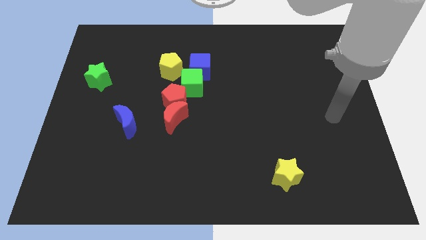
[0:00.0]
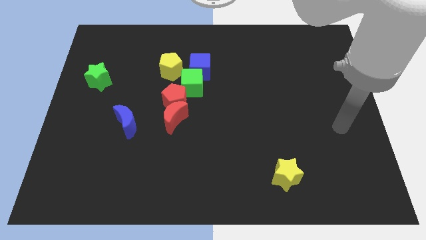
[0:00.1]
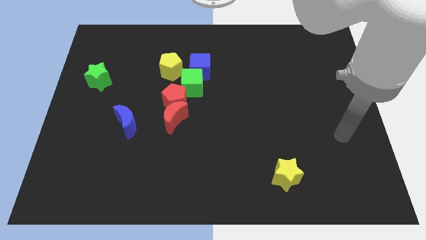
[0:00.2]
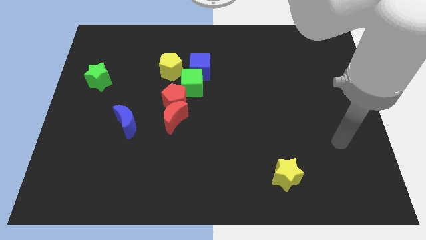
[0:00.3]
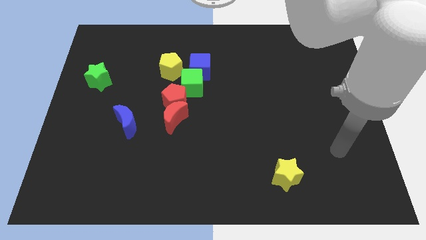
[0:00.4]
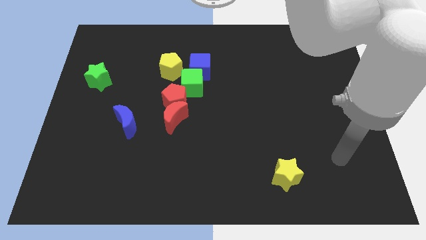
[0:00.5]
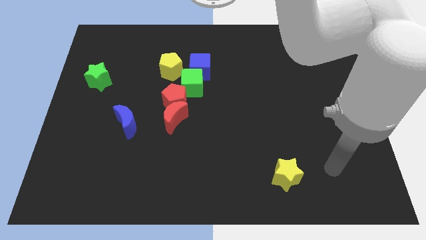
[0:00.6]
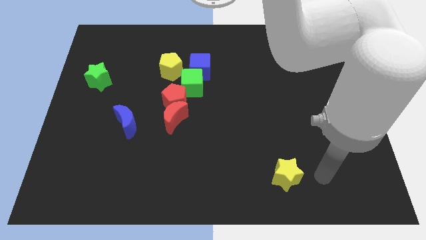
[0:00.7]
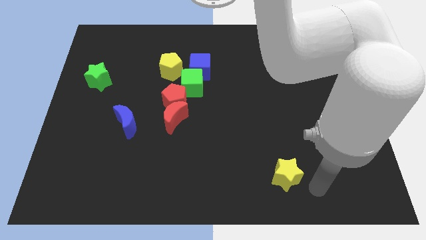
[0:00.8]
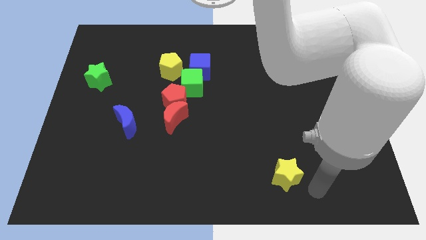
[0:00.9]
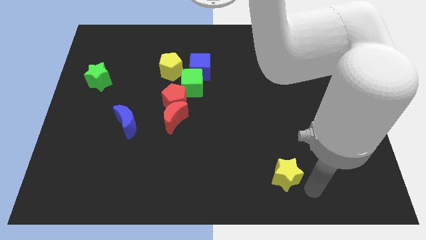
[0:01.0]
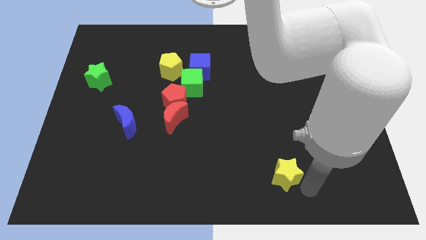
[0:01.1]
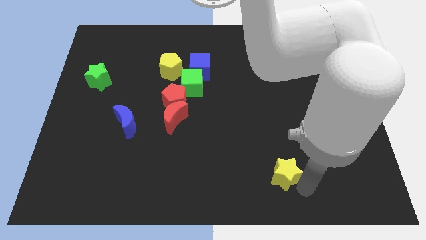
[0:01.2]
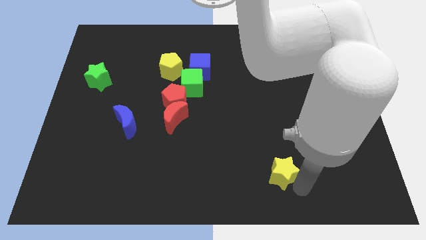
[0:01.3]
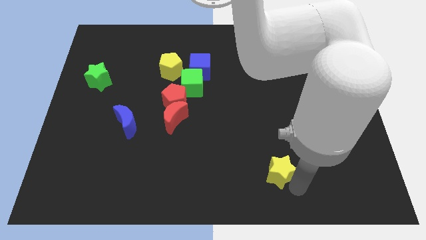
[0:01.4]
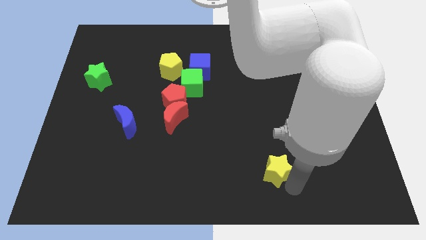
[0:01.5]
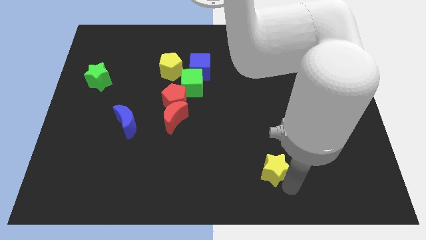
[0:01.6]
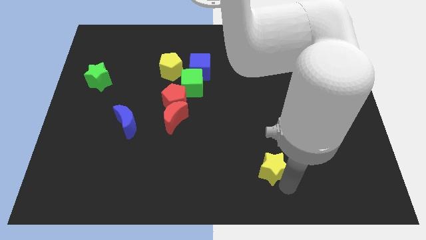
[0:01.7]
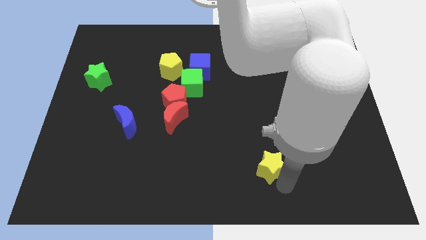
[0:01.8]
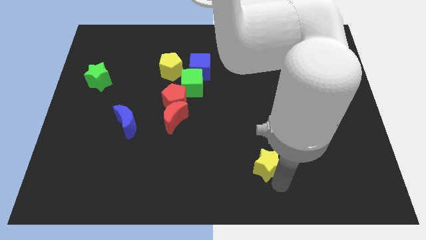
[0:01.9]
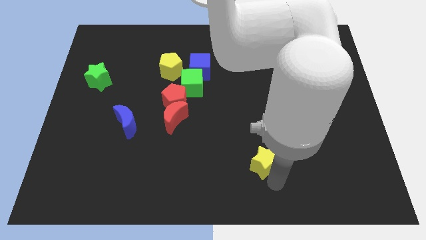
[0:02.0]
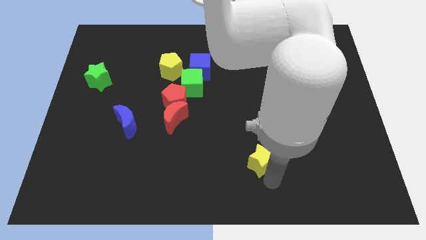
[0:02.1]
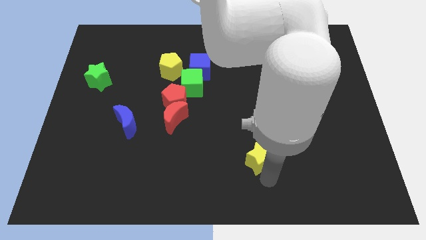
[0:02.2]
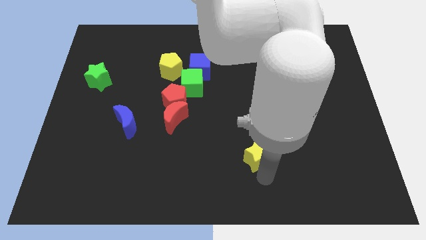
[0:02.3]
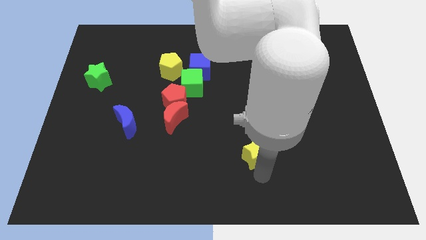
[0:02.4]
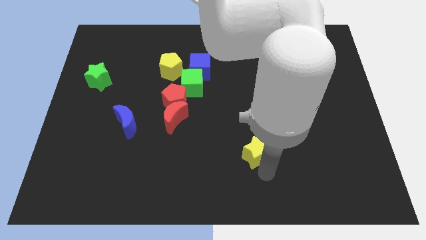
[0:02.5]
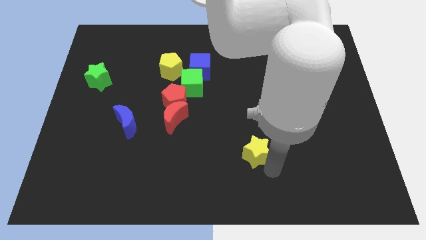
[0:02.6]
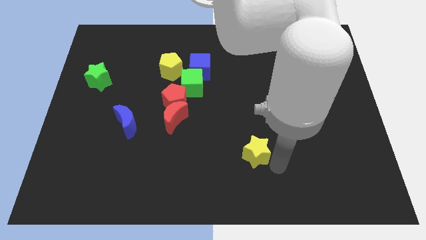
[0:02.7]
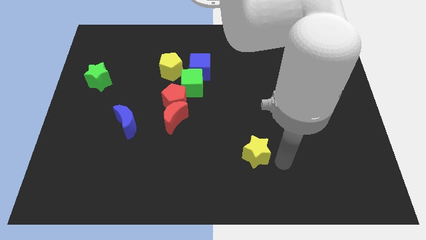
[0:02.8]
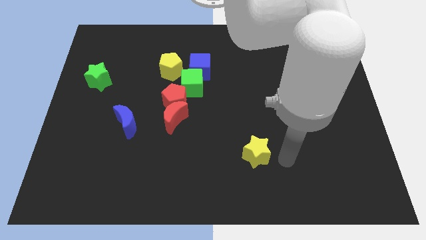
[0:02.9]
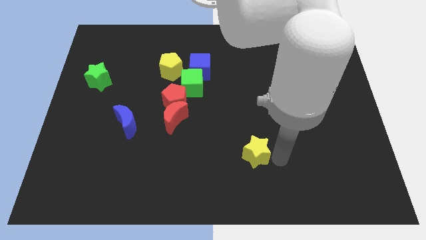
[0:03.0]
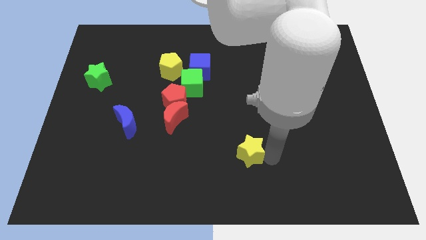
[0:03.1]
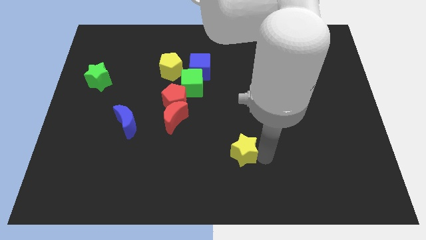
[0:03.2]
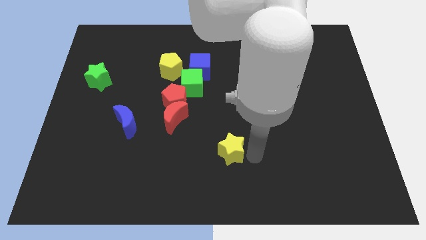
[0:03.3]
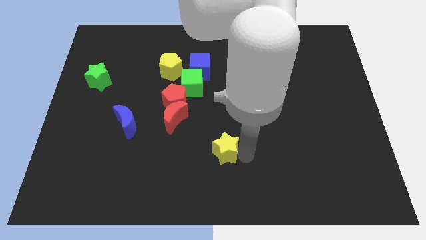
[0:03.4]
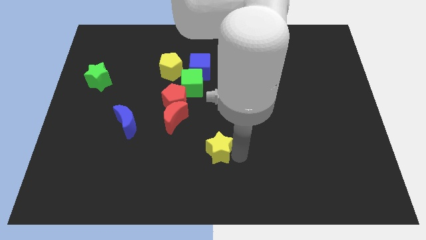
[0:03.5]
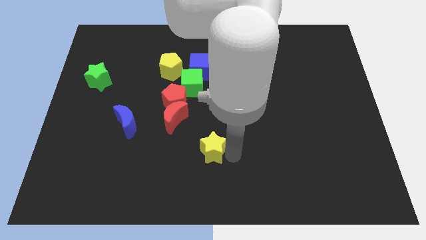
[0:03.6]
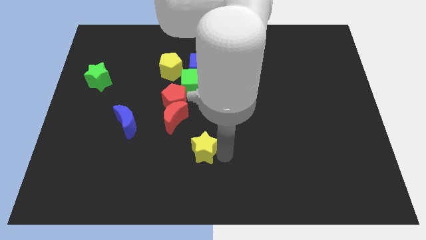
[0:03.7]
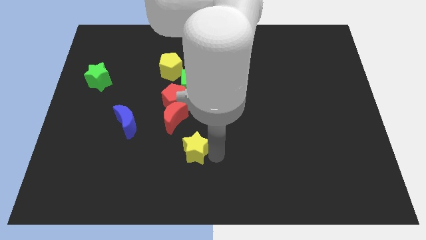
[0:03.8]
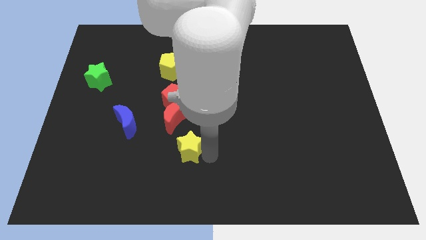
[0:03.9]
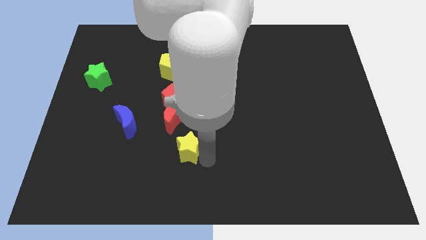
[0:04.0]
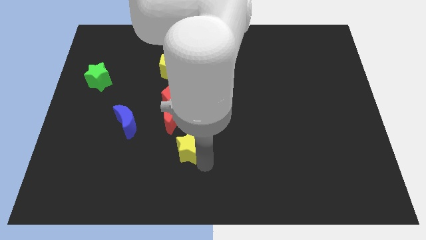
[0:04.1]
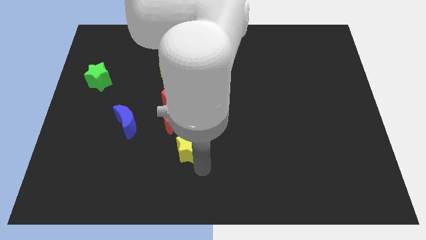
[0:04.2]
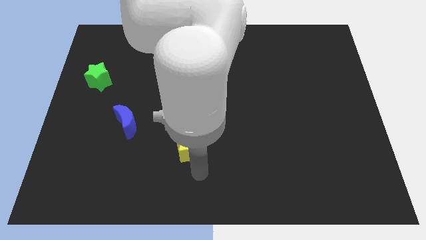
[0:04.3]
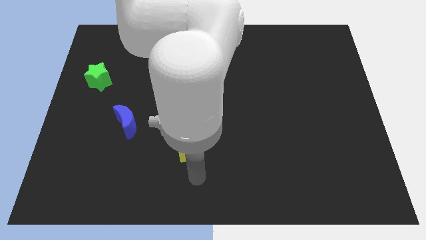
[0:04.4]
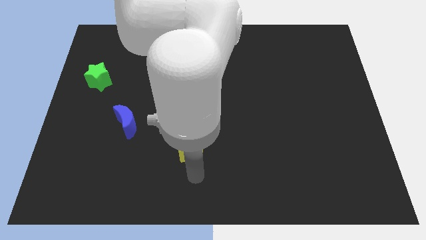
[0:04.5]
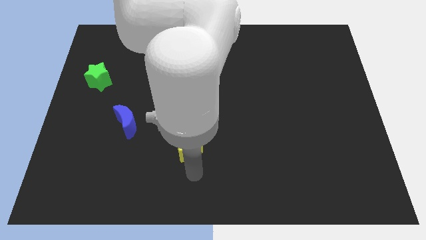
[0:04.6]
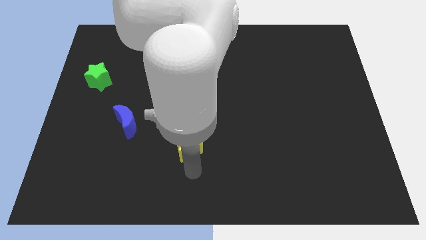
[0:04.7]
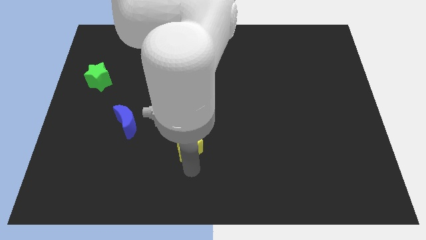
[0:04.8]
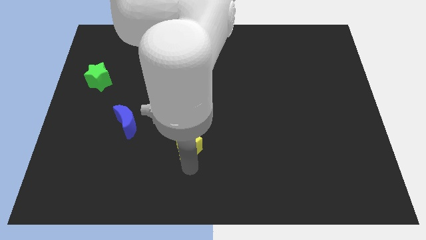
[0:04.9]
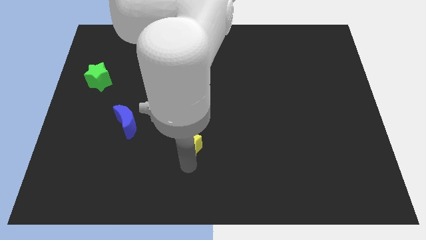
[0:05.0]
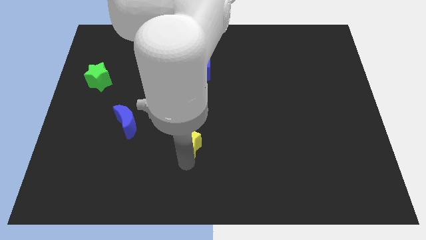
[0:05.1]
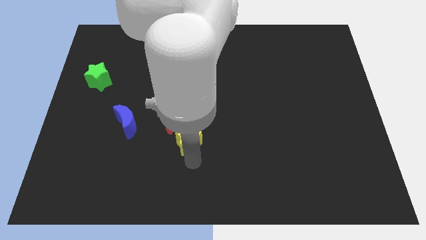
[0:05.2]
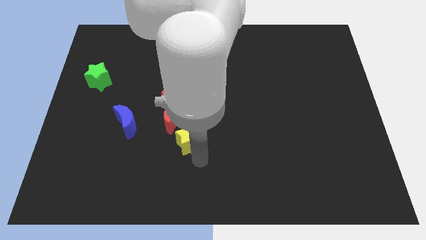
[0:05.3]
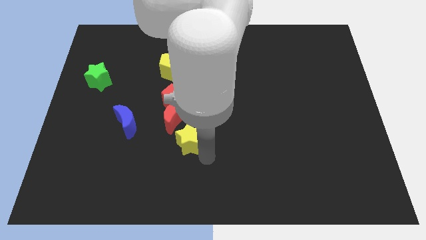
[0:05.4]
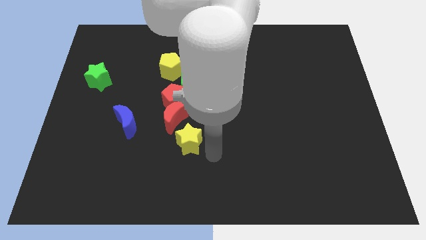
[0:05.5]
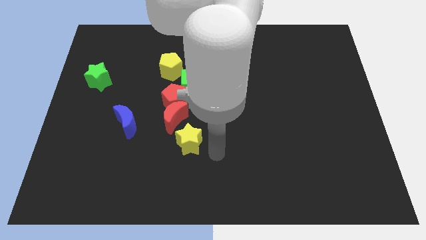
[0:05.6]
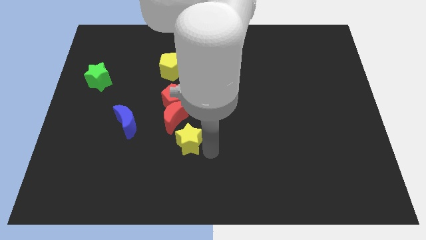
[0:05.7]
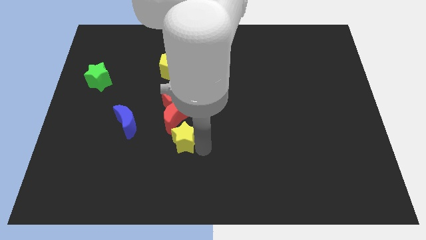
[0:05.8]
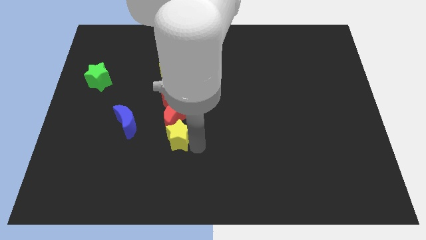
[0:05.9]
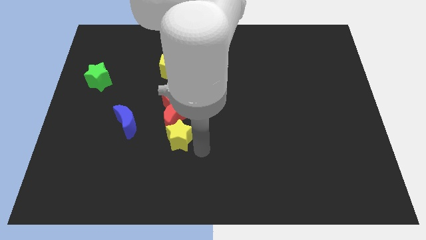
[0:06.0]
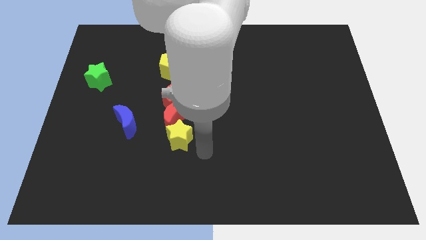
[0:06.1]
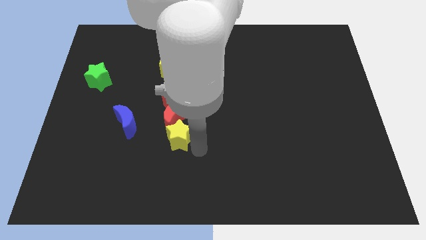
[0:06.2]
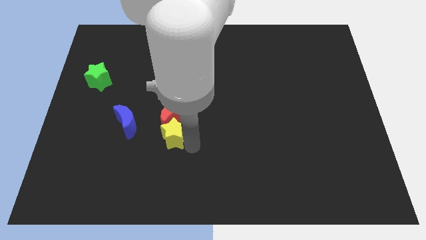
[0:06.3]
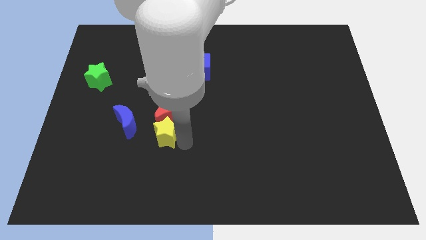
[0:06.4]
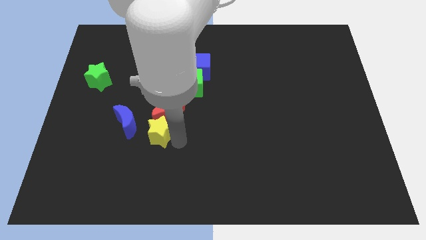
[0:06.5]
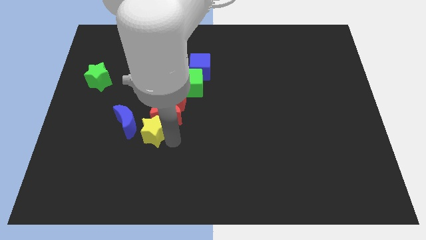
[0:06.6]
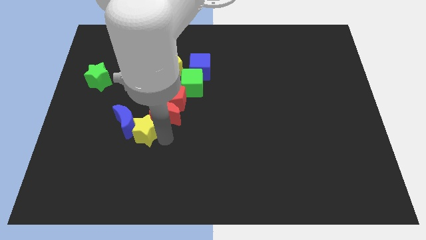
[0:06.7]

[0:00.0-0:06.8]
slide the yellow star close to the blue moon
